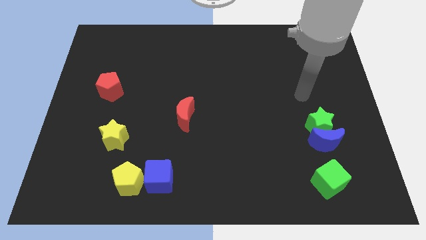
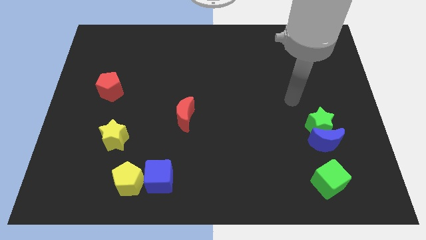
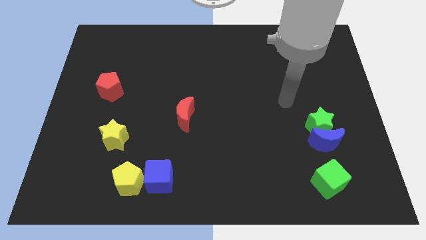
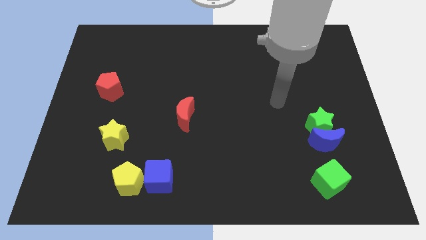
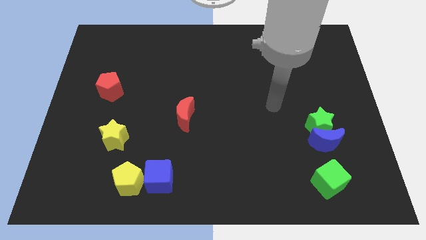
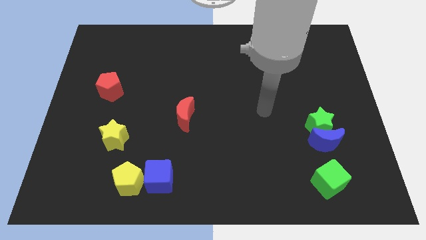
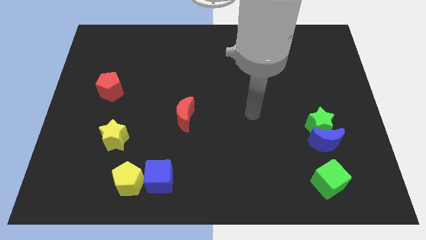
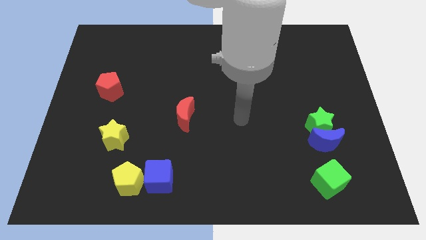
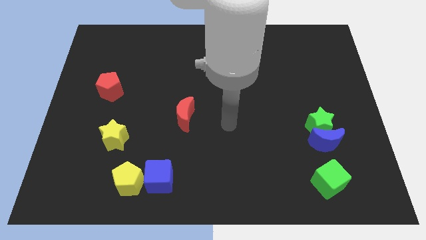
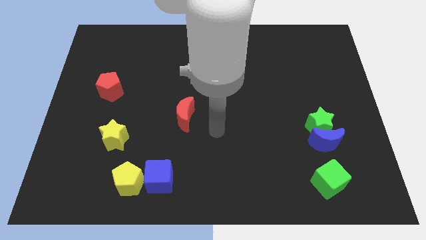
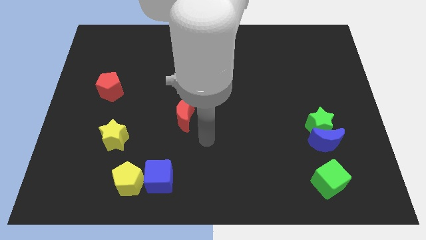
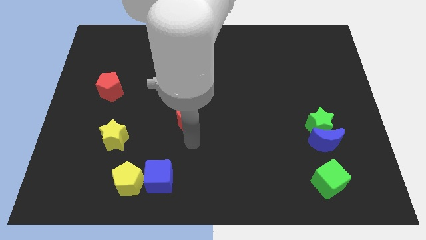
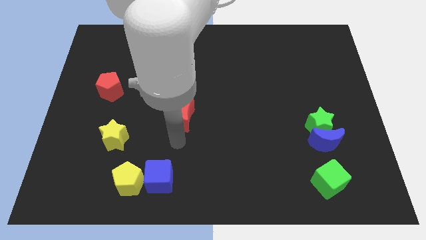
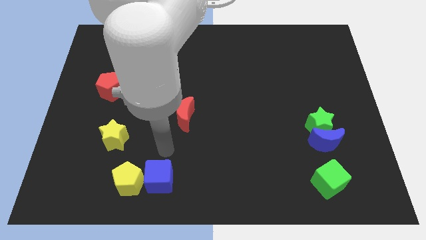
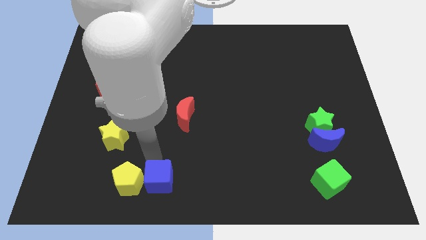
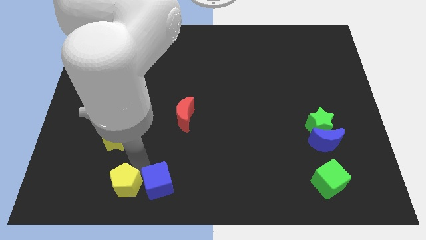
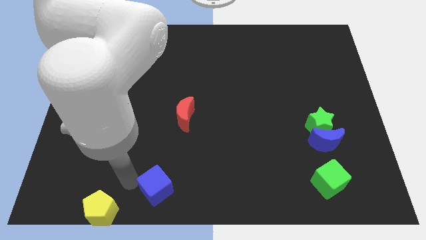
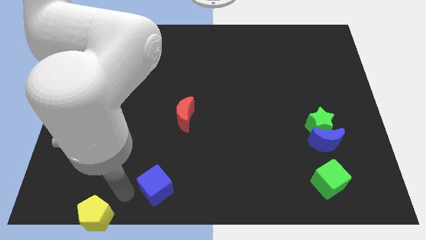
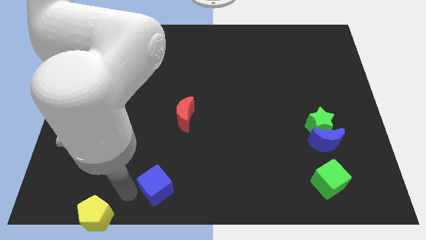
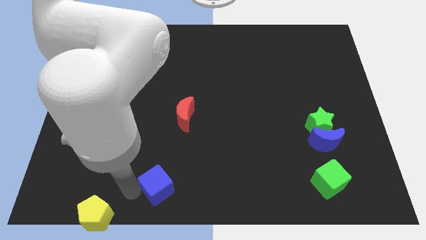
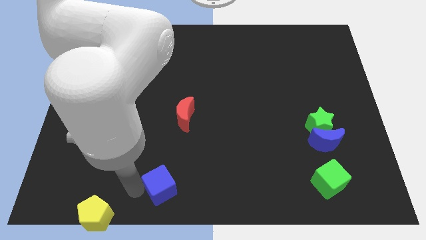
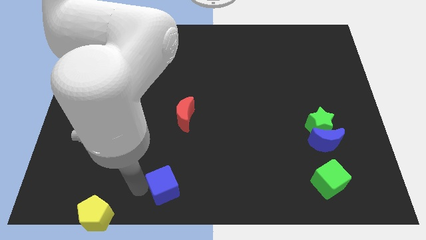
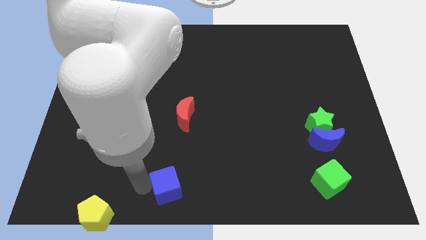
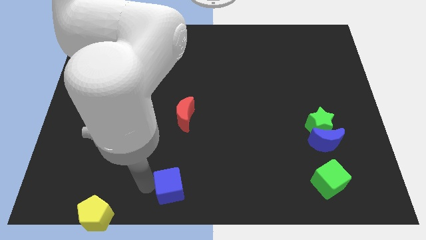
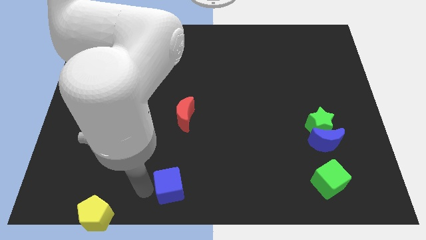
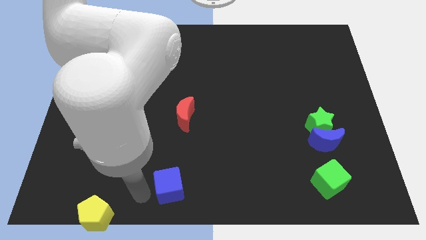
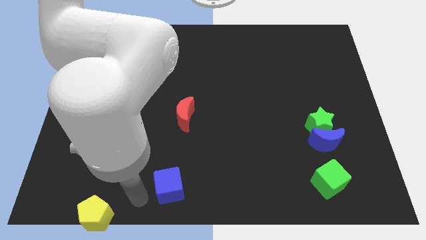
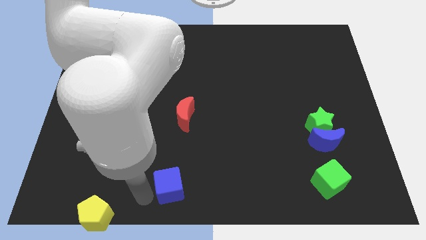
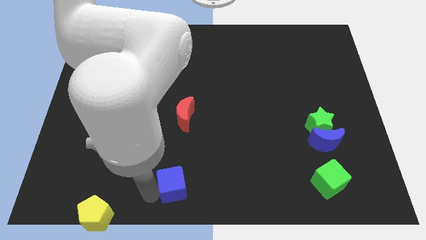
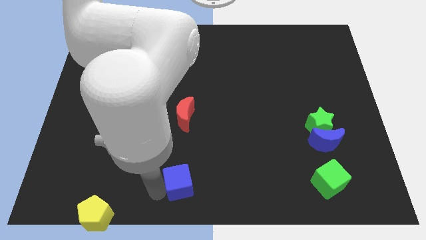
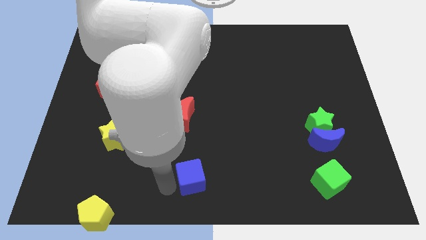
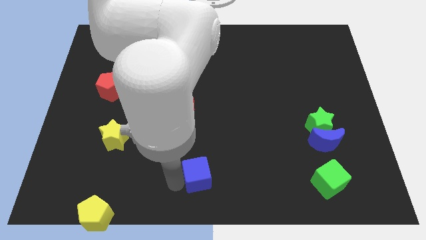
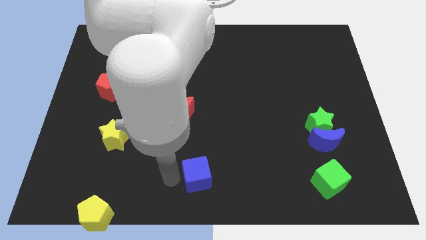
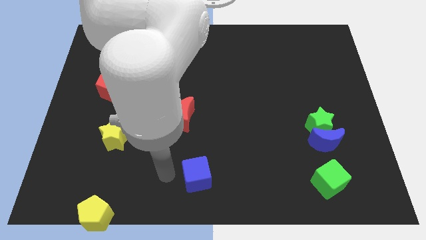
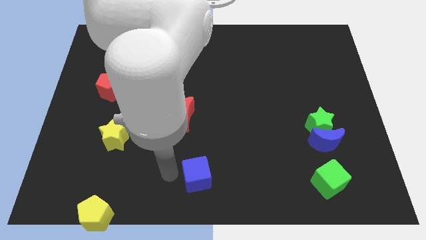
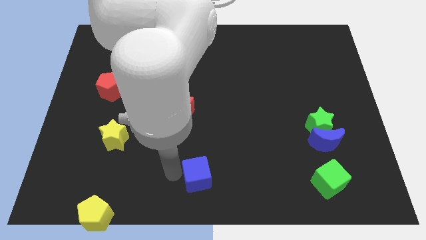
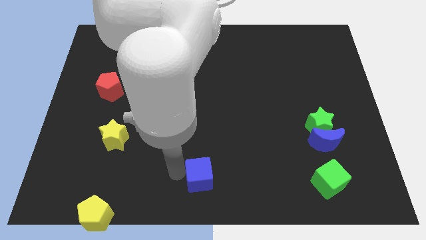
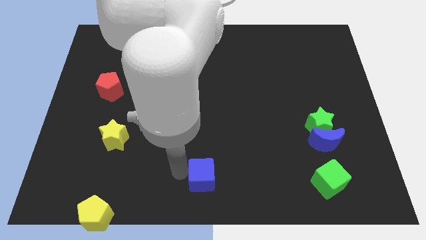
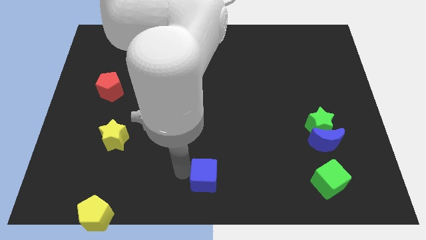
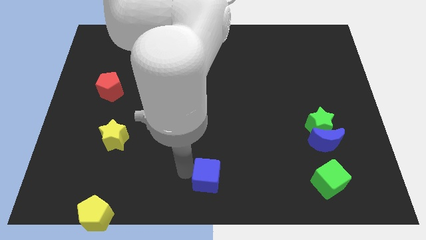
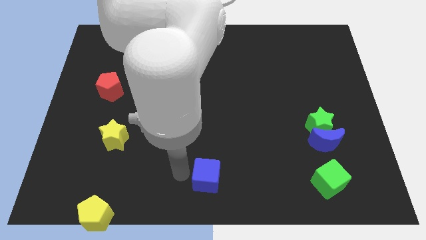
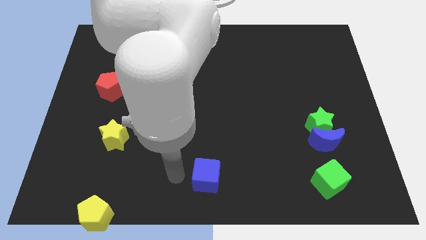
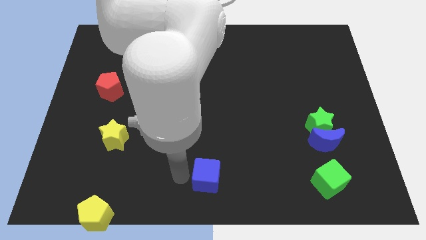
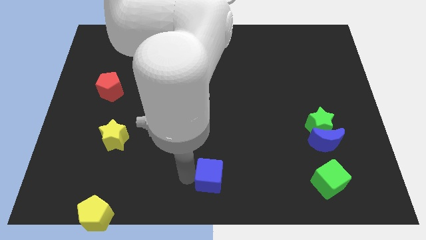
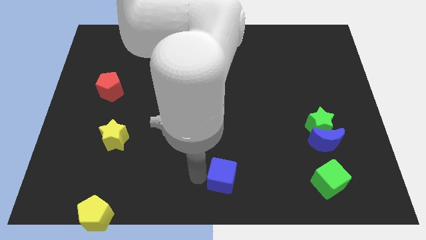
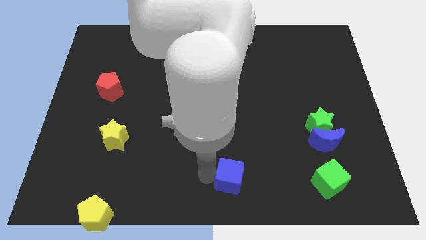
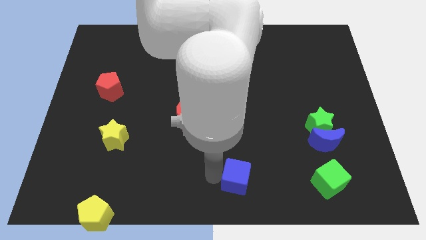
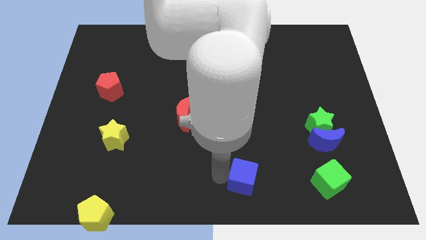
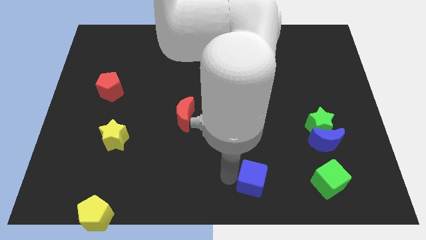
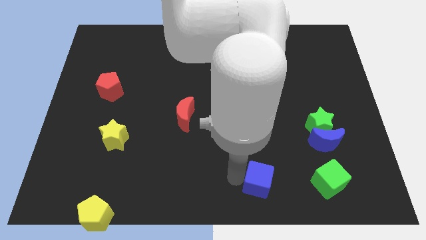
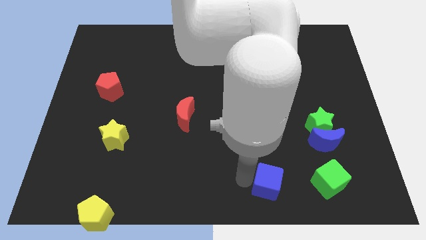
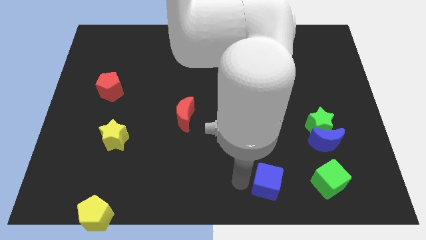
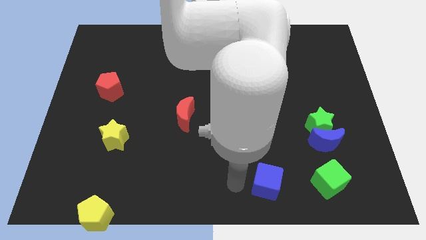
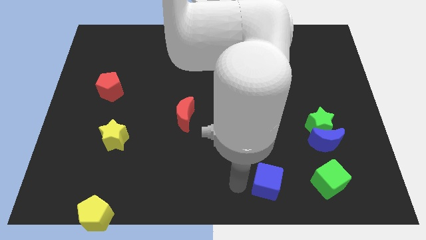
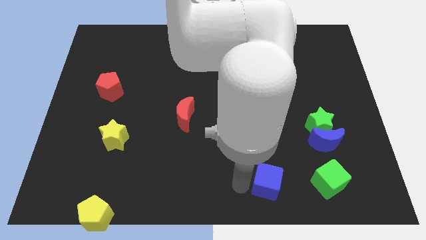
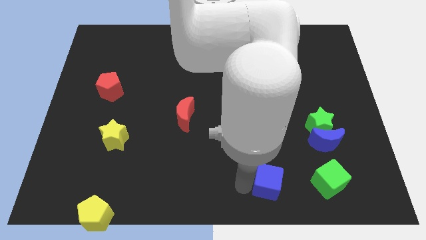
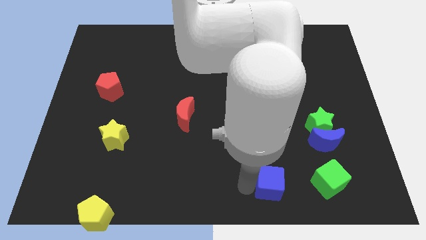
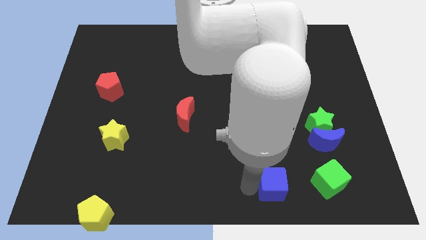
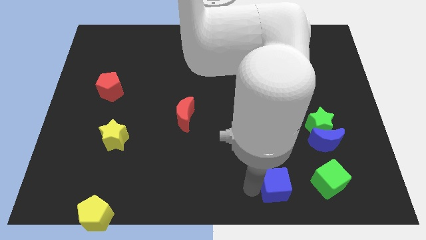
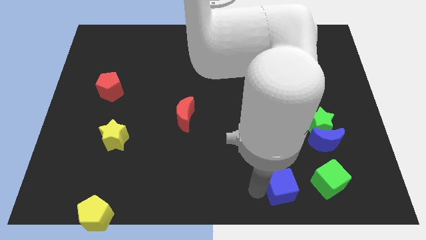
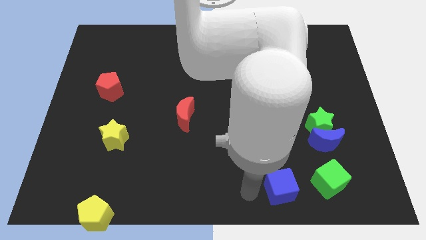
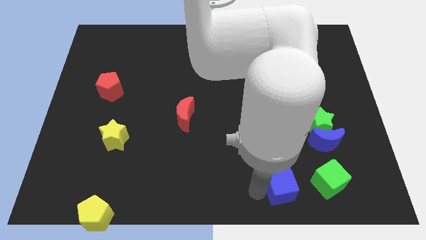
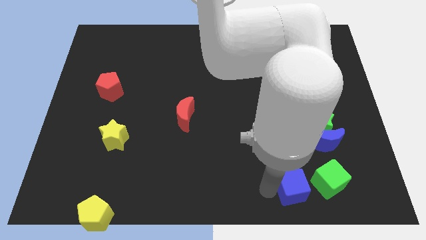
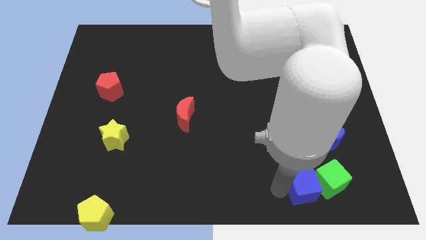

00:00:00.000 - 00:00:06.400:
move the blue cube next to the green cube

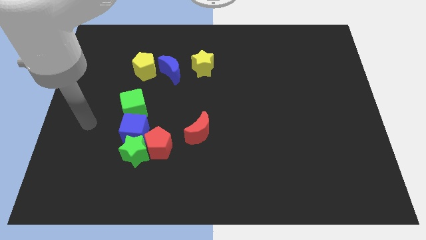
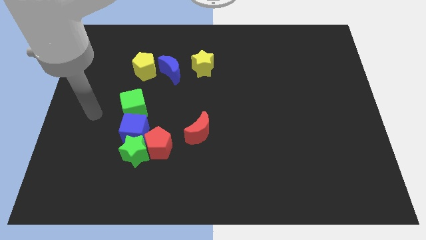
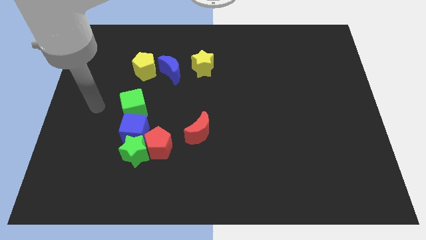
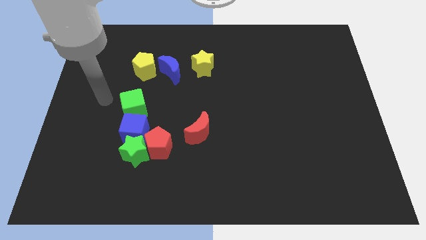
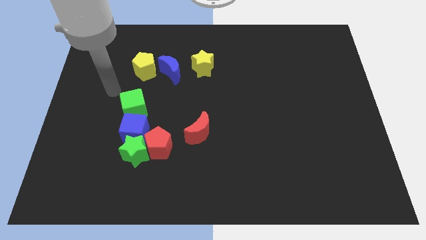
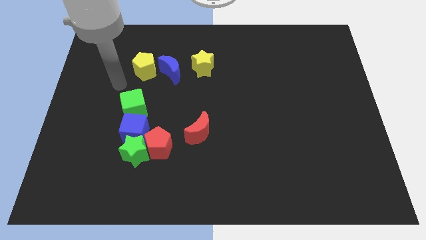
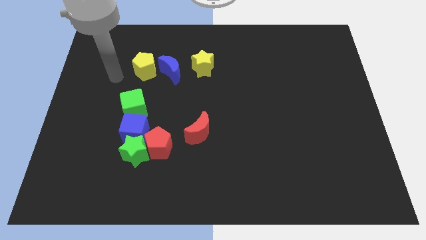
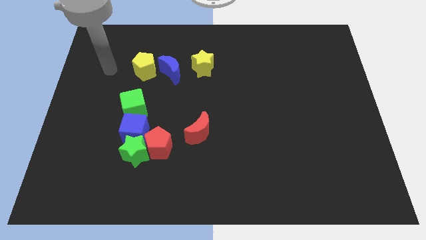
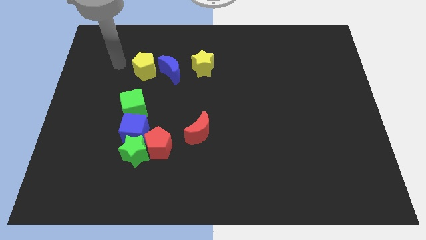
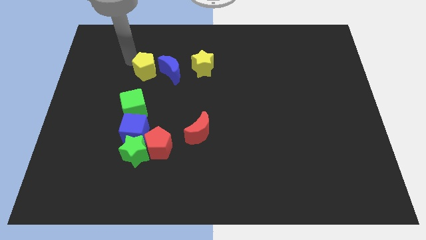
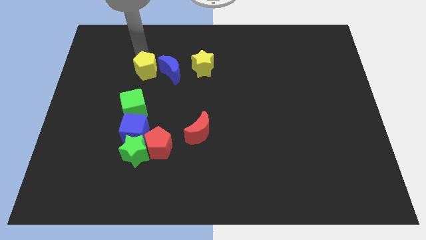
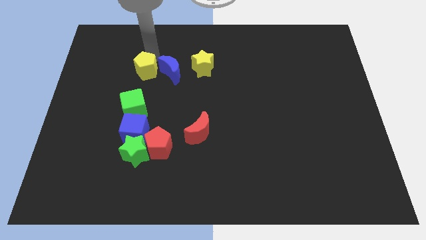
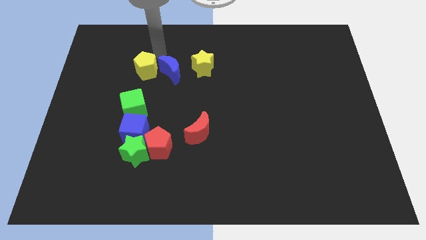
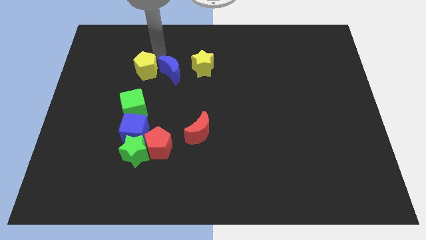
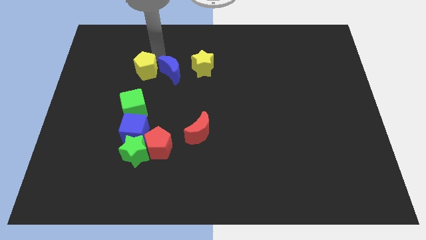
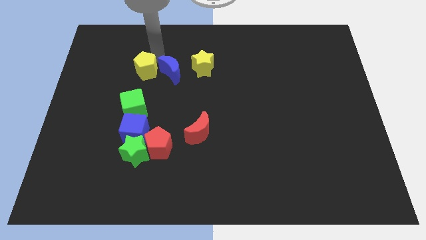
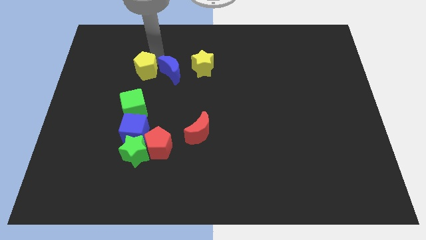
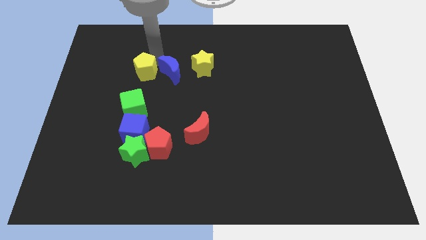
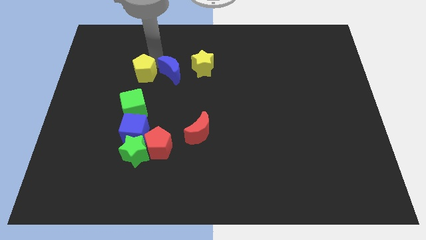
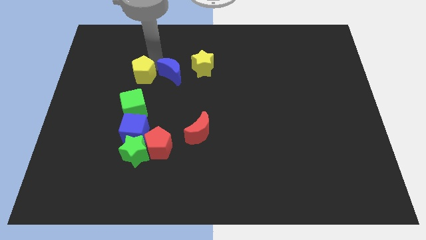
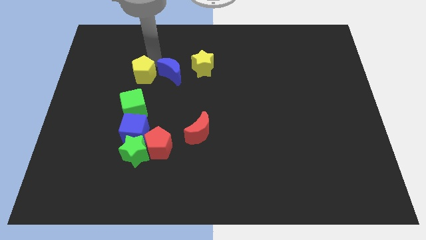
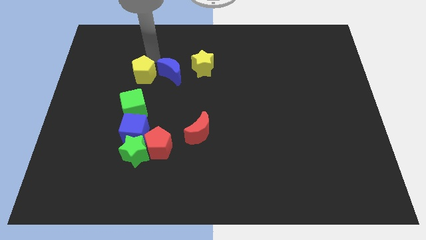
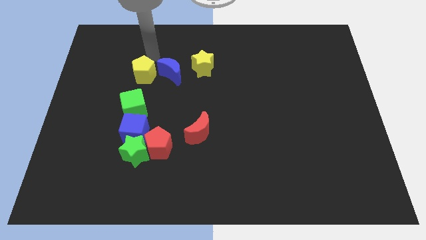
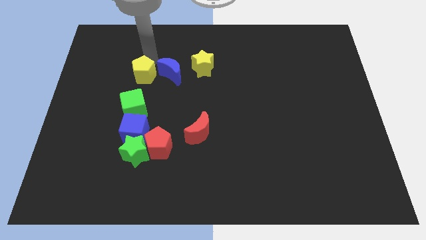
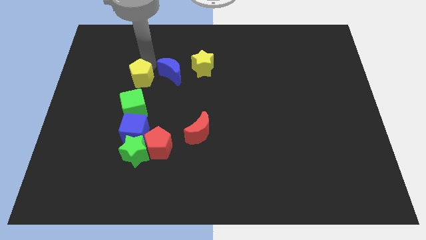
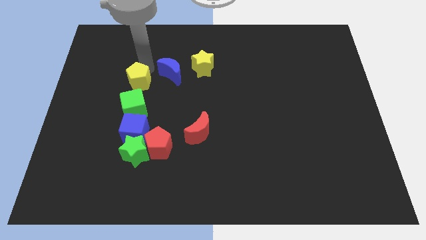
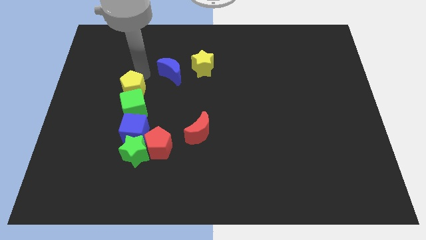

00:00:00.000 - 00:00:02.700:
slide the yellow pentagon close to the green cube
